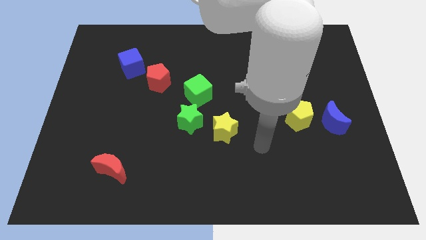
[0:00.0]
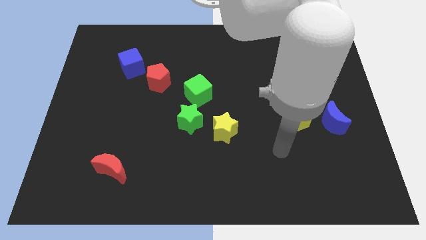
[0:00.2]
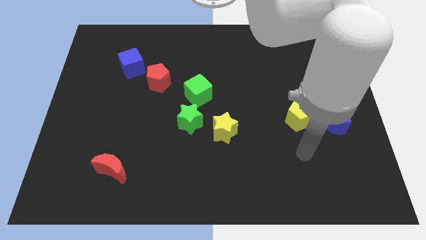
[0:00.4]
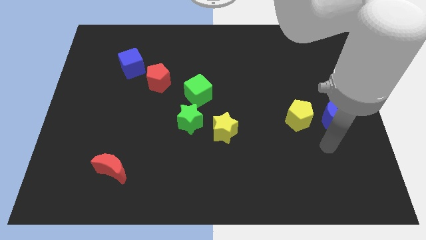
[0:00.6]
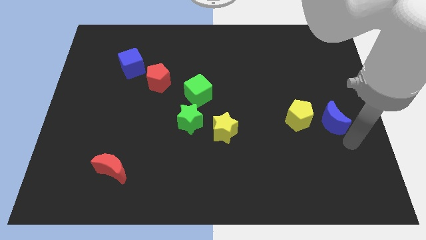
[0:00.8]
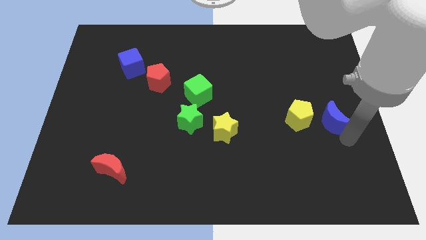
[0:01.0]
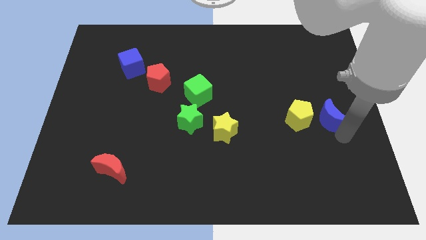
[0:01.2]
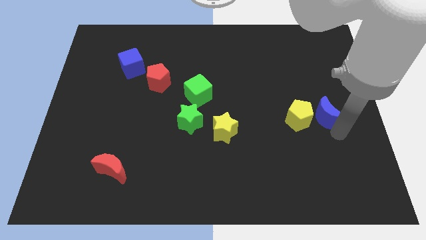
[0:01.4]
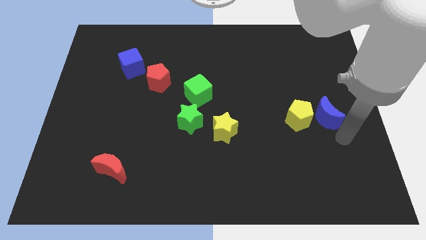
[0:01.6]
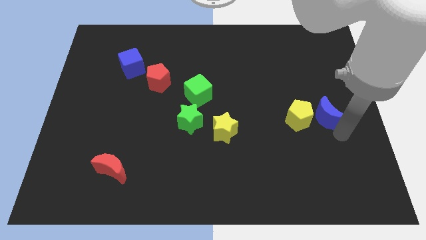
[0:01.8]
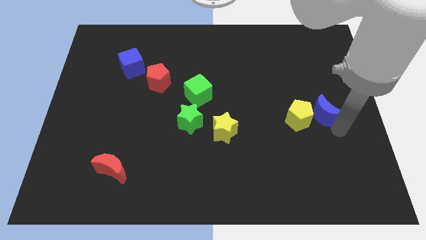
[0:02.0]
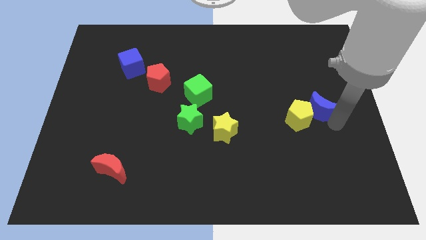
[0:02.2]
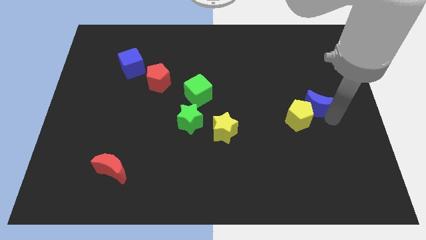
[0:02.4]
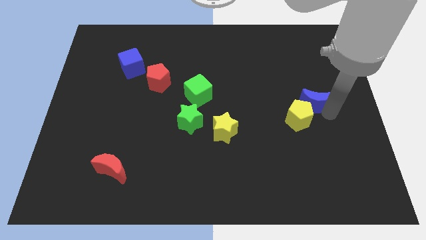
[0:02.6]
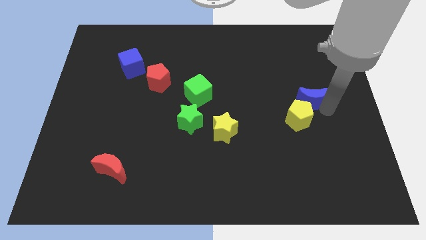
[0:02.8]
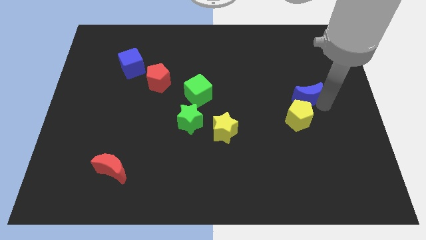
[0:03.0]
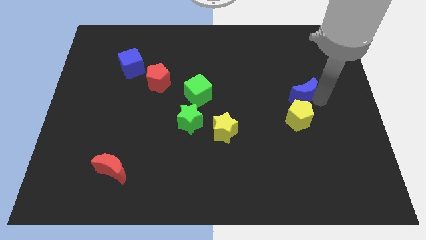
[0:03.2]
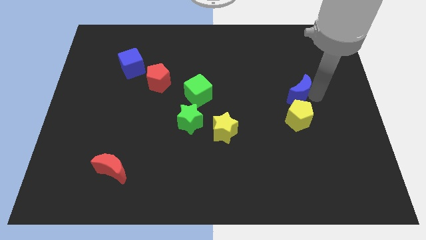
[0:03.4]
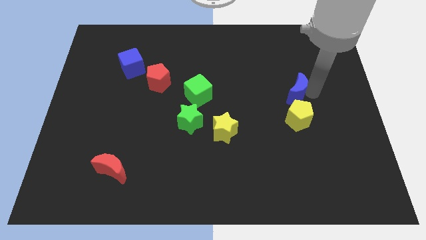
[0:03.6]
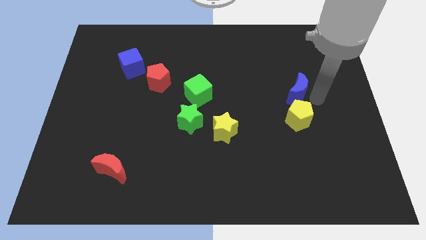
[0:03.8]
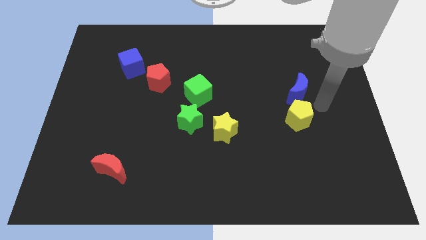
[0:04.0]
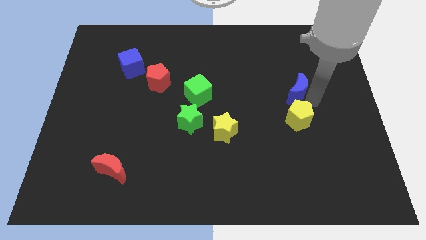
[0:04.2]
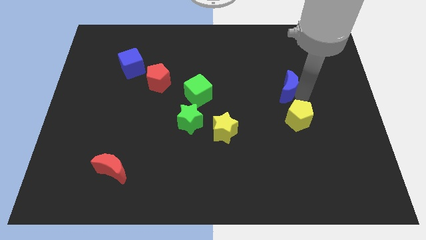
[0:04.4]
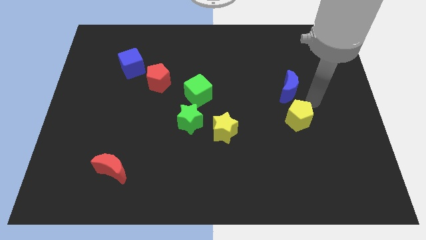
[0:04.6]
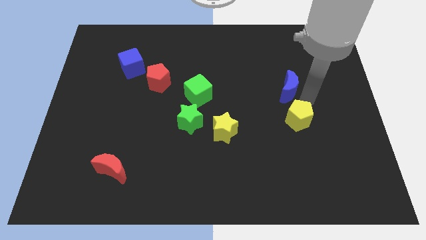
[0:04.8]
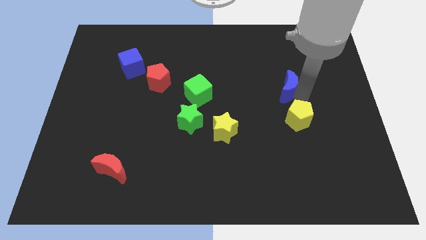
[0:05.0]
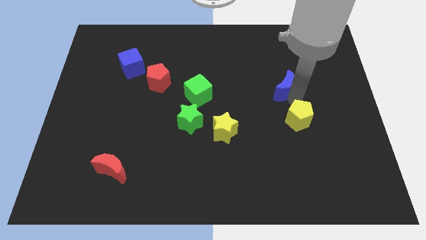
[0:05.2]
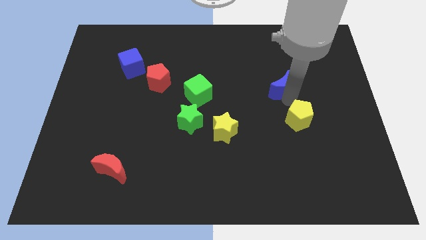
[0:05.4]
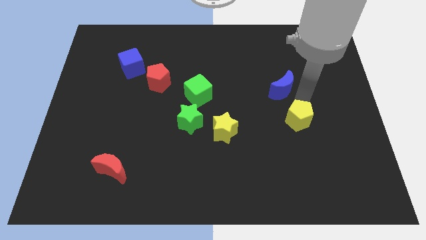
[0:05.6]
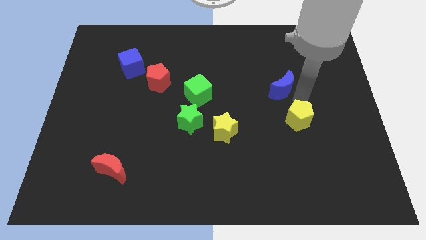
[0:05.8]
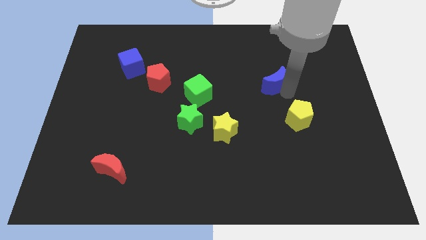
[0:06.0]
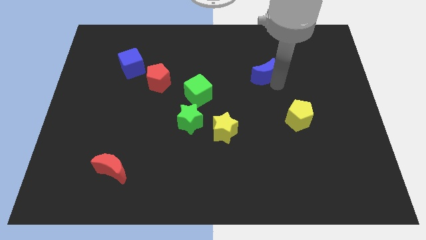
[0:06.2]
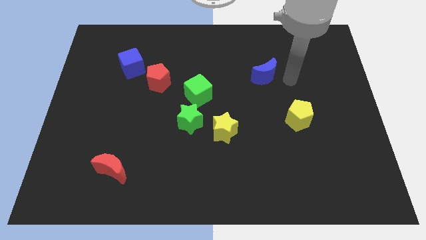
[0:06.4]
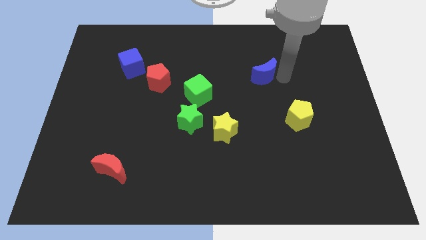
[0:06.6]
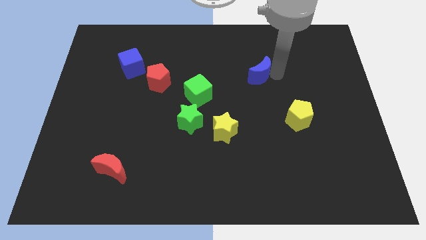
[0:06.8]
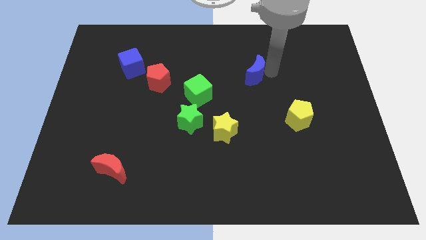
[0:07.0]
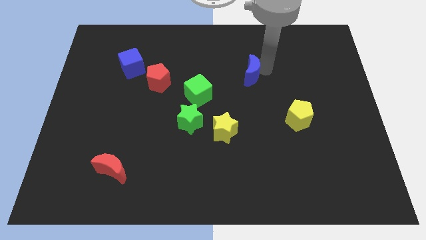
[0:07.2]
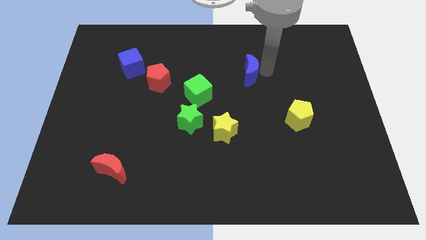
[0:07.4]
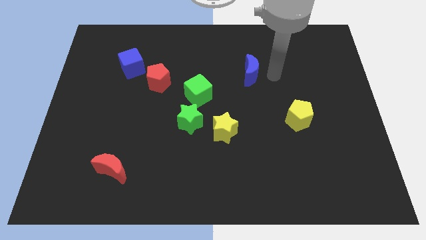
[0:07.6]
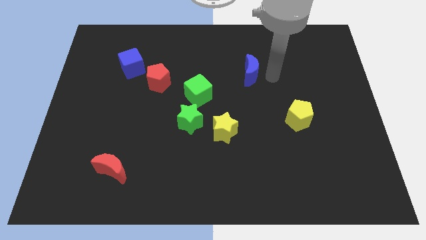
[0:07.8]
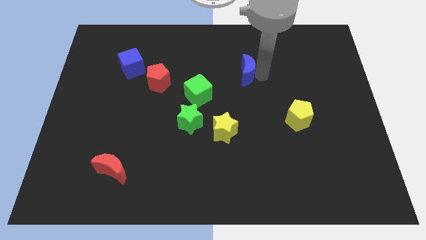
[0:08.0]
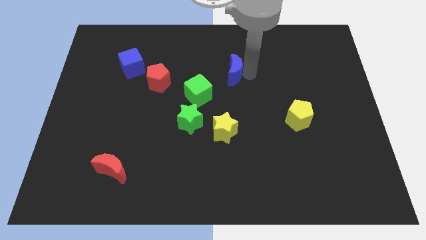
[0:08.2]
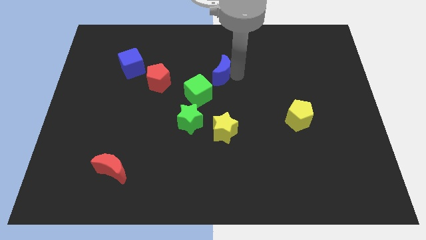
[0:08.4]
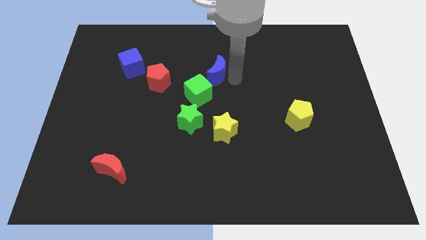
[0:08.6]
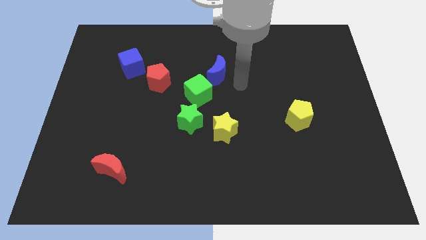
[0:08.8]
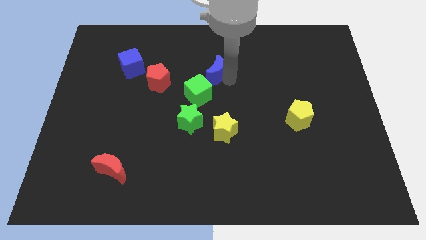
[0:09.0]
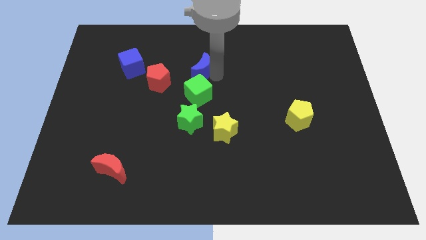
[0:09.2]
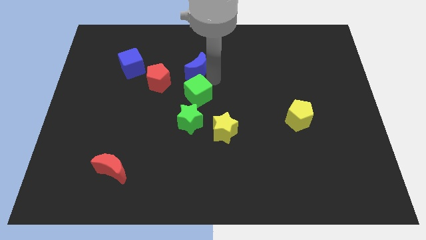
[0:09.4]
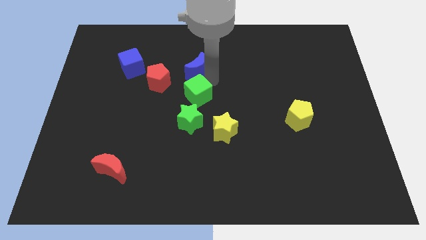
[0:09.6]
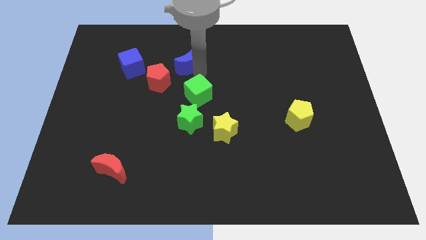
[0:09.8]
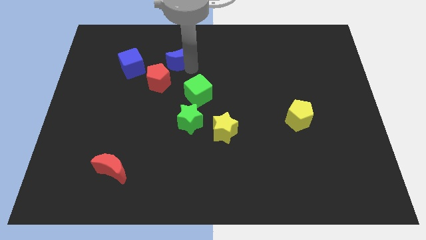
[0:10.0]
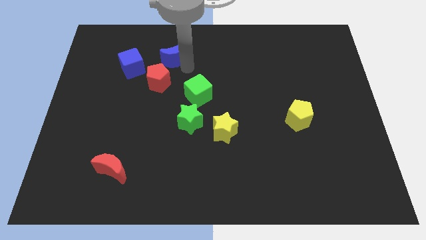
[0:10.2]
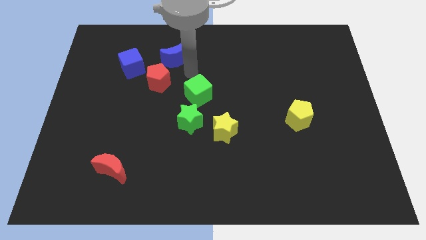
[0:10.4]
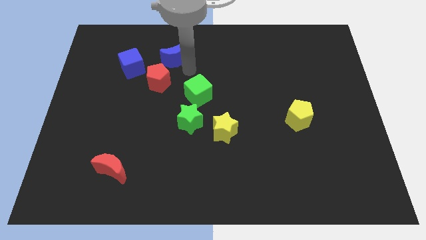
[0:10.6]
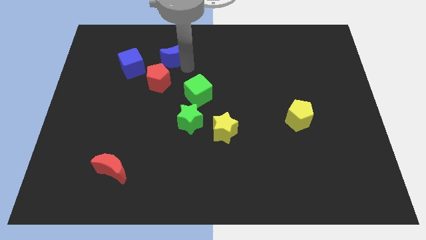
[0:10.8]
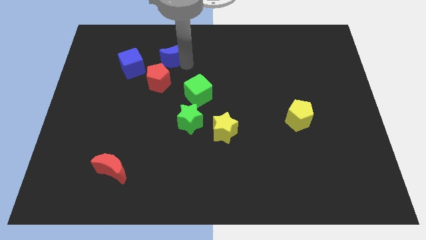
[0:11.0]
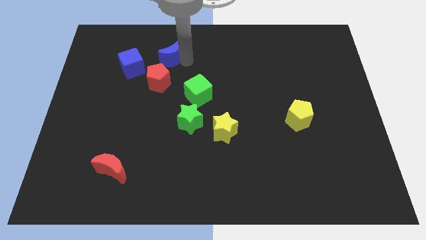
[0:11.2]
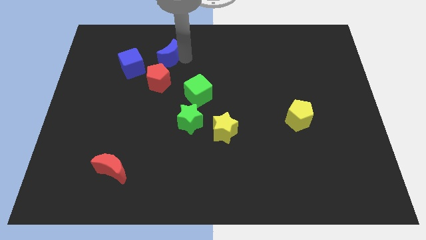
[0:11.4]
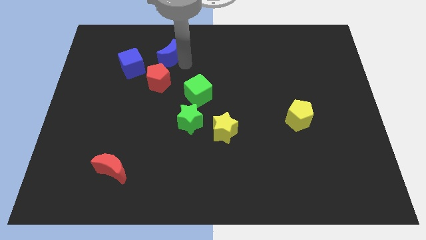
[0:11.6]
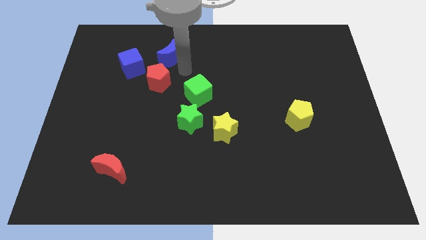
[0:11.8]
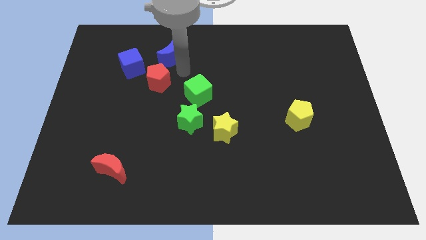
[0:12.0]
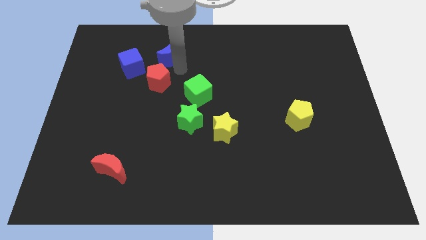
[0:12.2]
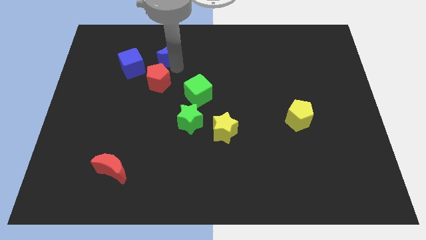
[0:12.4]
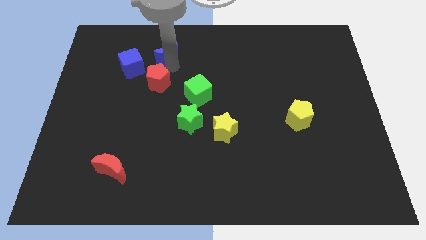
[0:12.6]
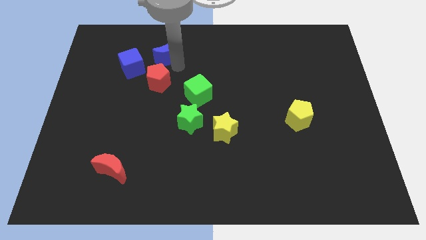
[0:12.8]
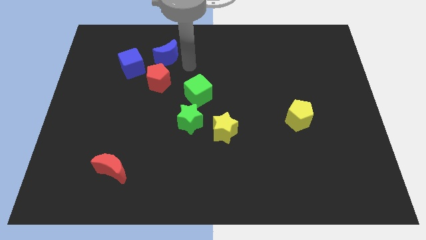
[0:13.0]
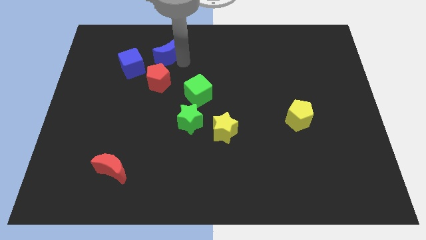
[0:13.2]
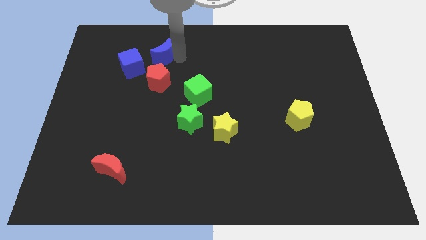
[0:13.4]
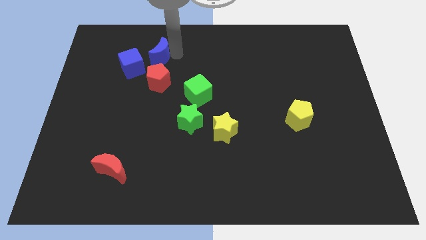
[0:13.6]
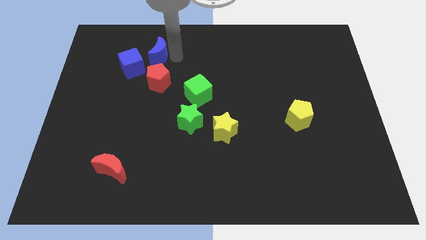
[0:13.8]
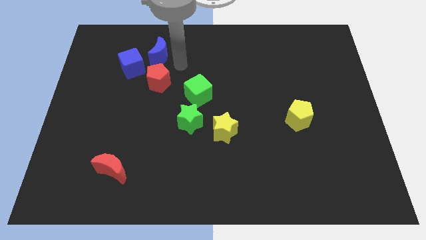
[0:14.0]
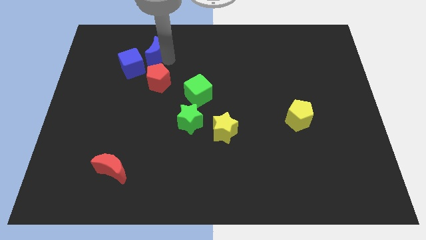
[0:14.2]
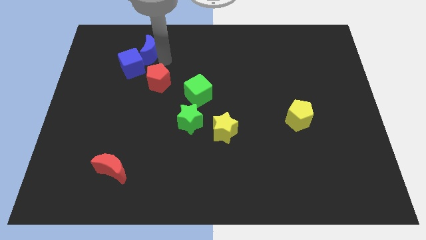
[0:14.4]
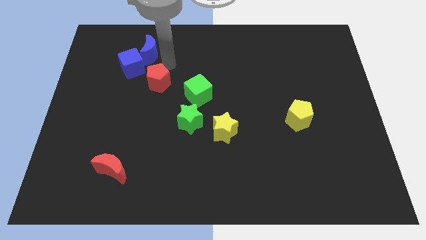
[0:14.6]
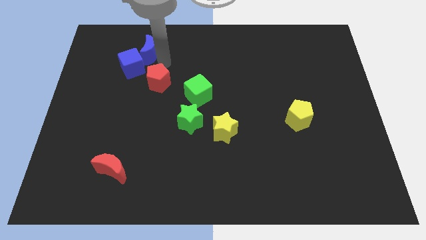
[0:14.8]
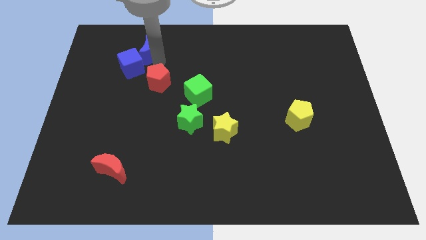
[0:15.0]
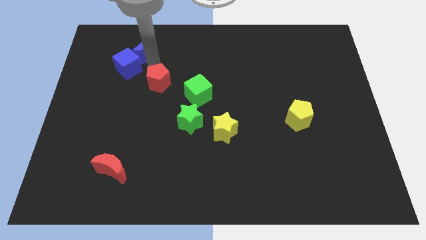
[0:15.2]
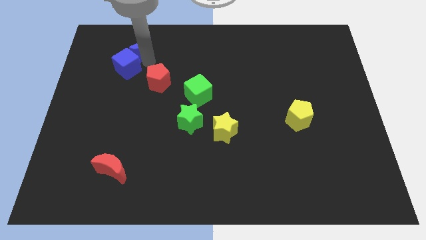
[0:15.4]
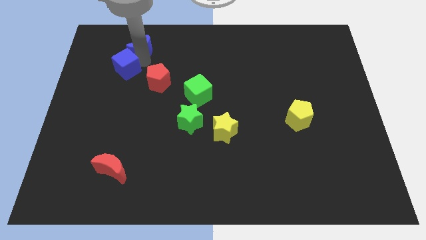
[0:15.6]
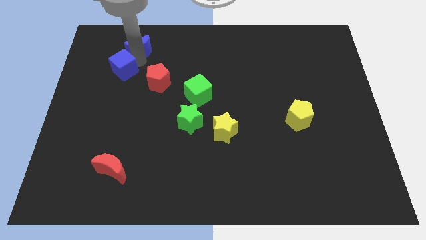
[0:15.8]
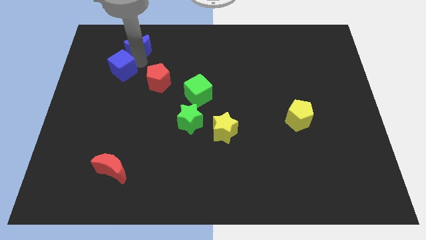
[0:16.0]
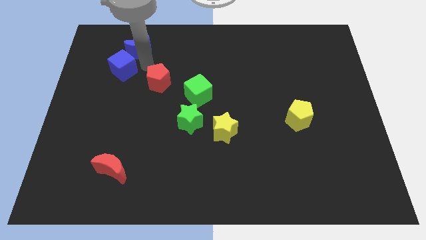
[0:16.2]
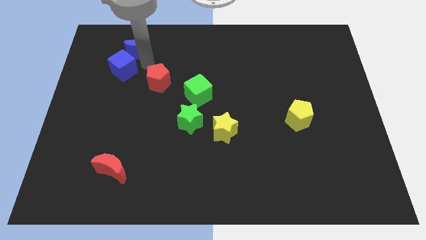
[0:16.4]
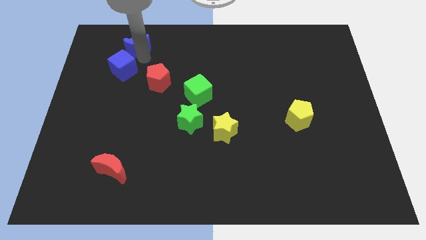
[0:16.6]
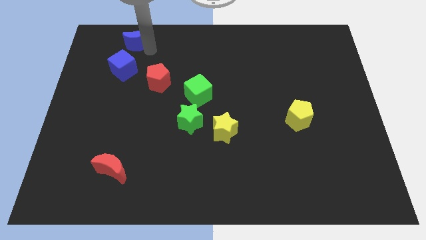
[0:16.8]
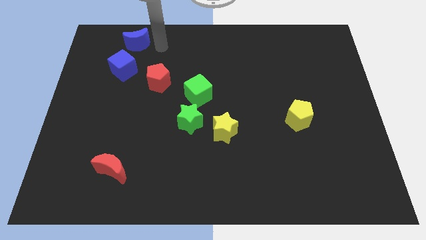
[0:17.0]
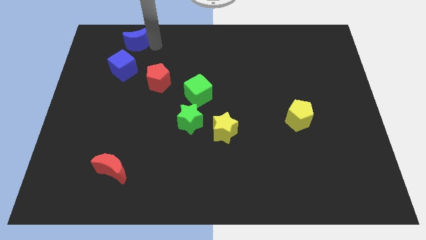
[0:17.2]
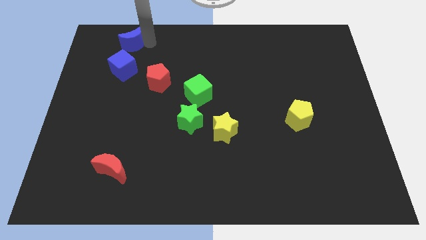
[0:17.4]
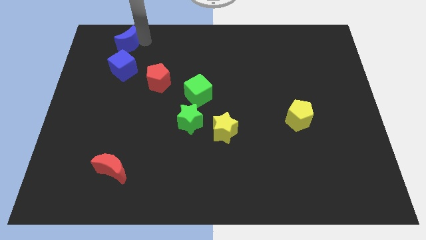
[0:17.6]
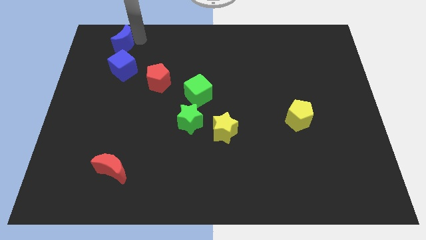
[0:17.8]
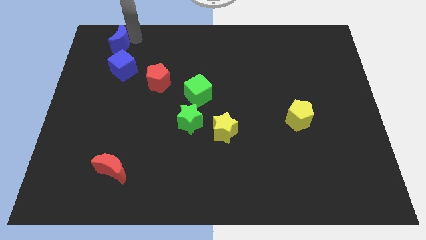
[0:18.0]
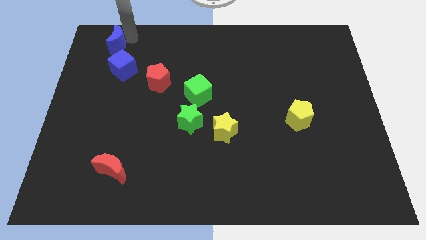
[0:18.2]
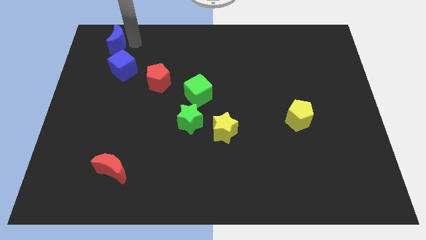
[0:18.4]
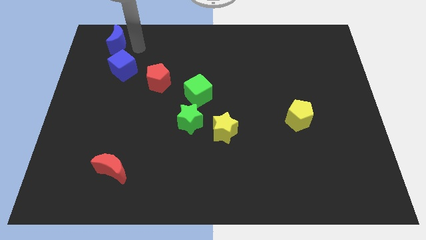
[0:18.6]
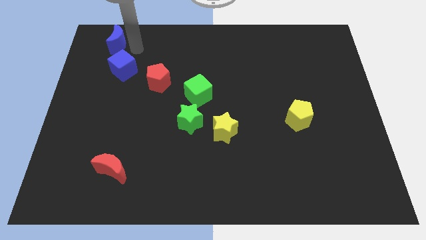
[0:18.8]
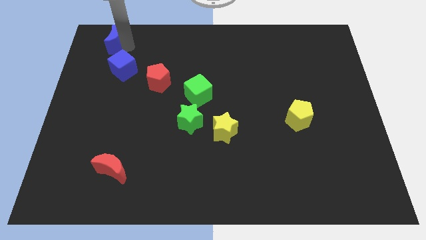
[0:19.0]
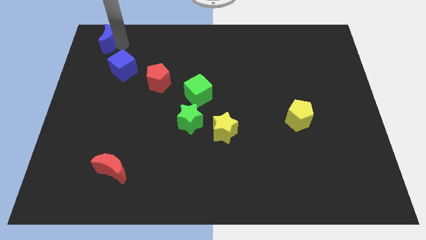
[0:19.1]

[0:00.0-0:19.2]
push the blue moon to the top left corner
